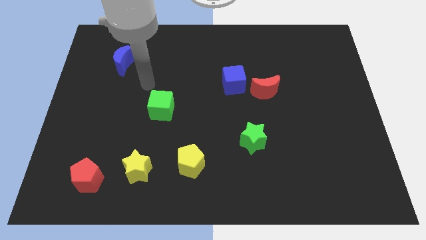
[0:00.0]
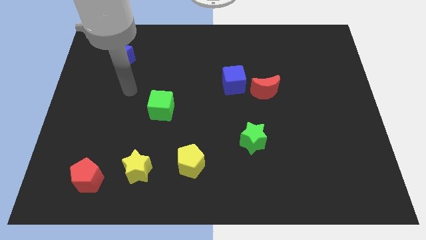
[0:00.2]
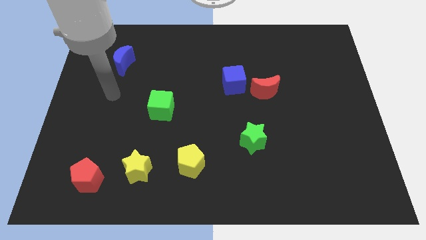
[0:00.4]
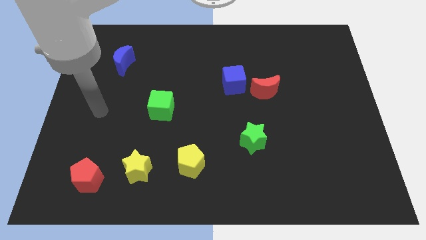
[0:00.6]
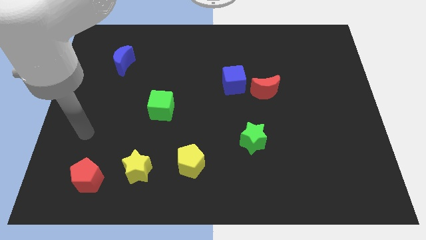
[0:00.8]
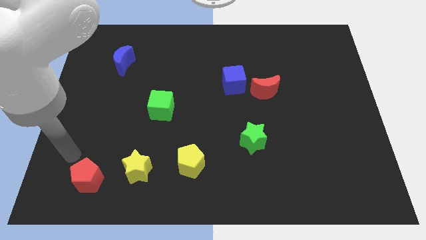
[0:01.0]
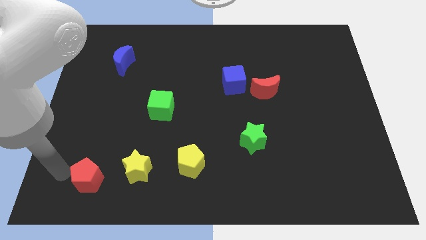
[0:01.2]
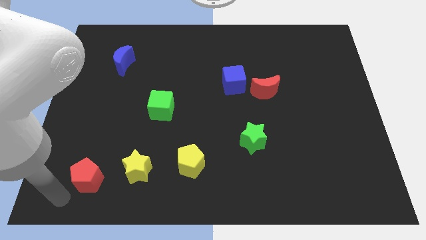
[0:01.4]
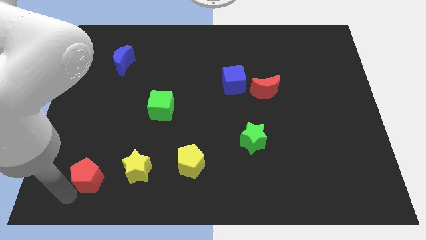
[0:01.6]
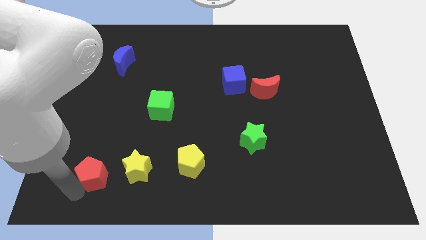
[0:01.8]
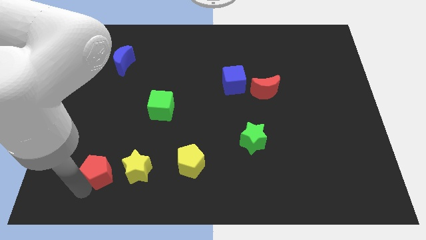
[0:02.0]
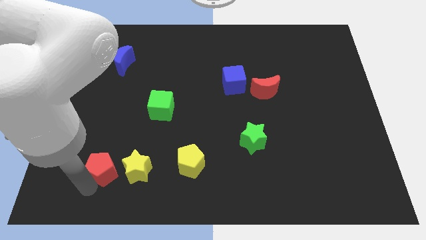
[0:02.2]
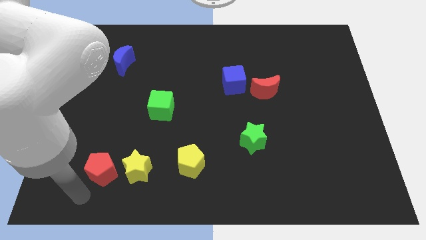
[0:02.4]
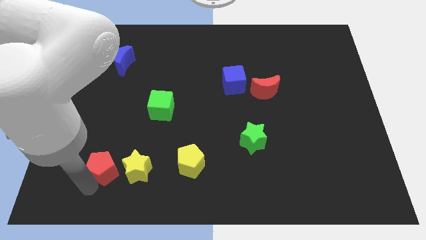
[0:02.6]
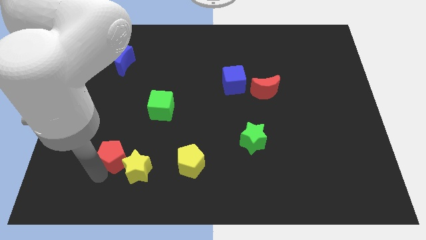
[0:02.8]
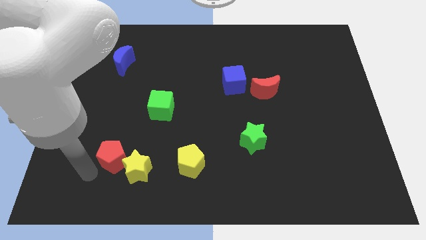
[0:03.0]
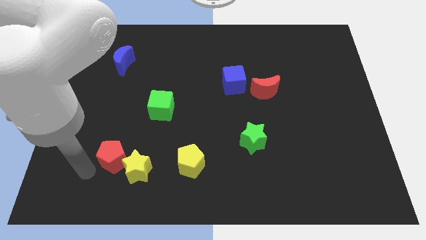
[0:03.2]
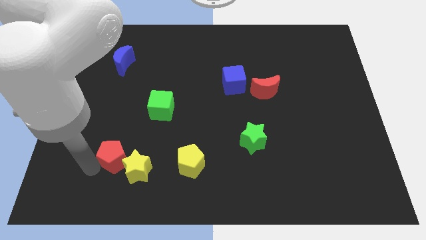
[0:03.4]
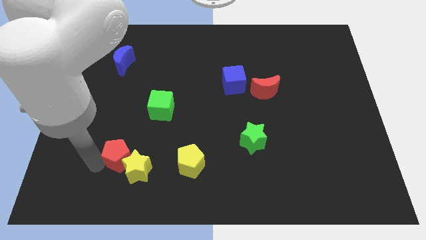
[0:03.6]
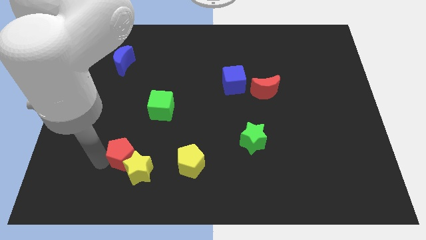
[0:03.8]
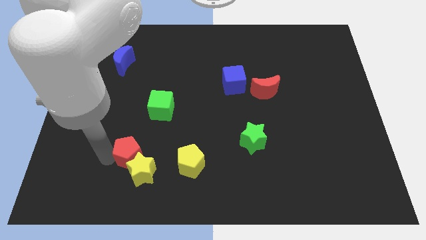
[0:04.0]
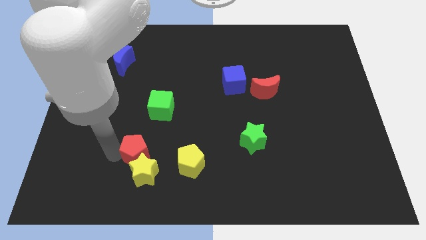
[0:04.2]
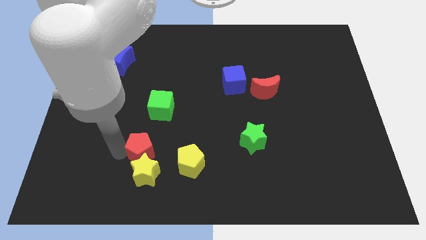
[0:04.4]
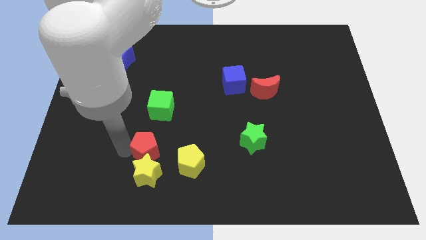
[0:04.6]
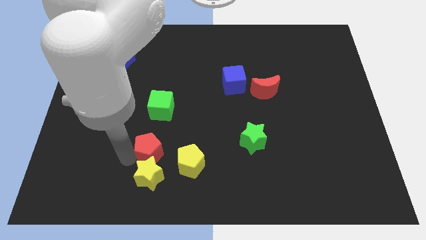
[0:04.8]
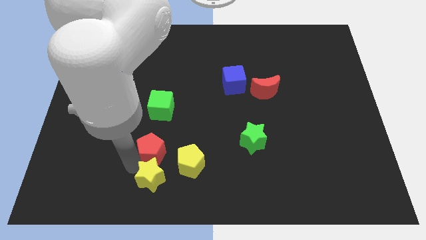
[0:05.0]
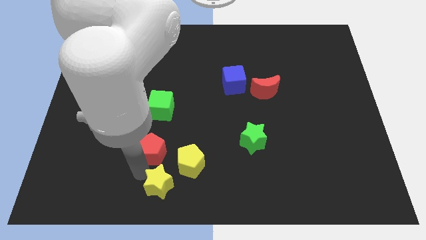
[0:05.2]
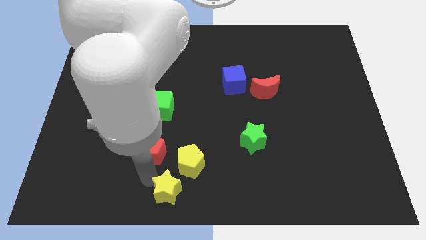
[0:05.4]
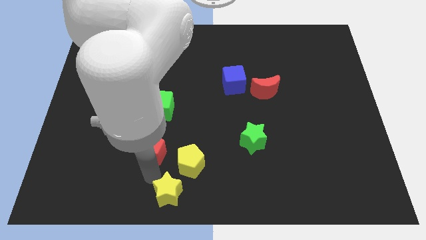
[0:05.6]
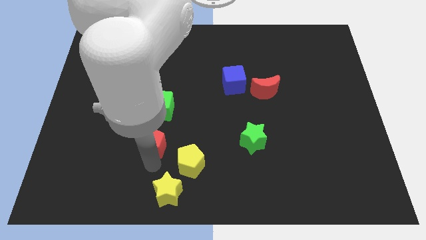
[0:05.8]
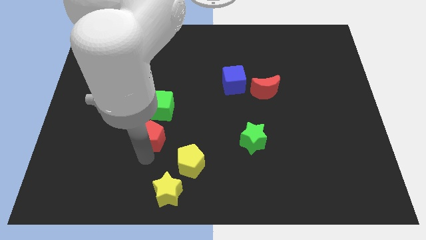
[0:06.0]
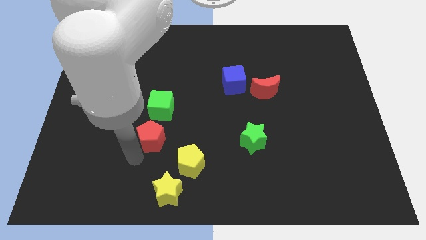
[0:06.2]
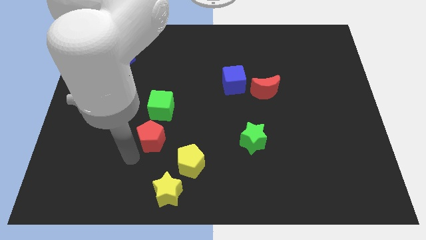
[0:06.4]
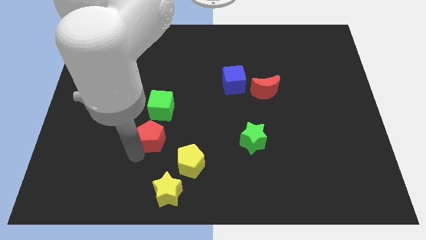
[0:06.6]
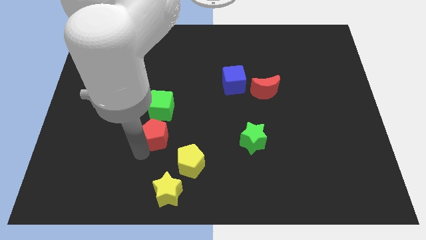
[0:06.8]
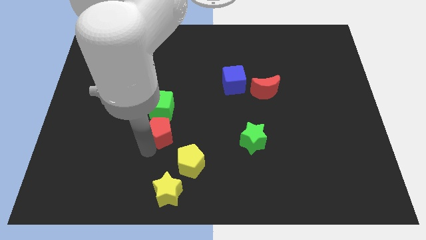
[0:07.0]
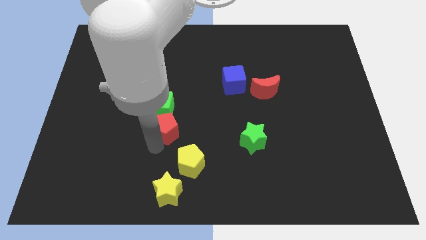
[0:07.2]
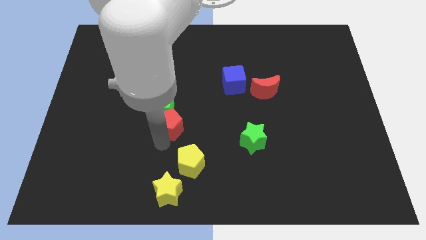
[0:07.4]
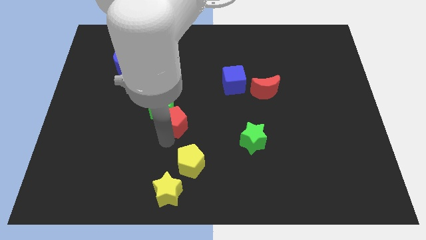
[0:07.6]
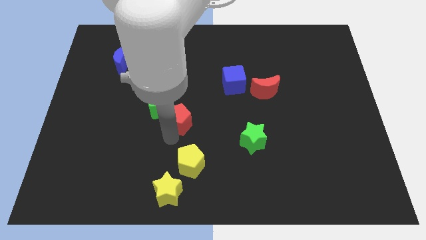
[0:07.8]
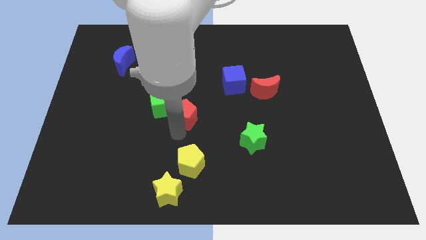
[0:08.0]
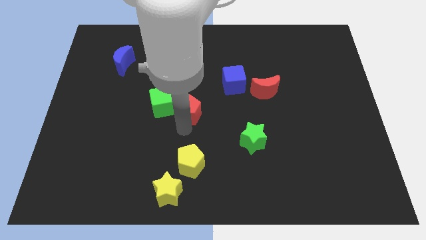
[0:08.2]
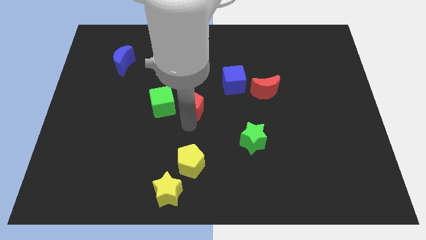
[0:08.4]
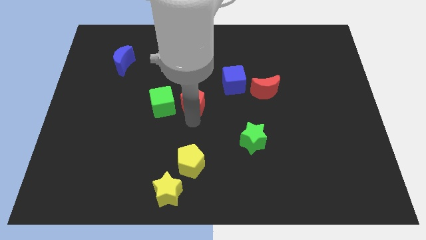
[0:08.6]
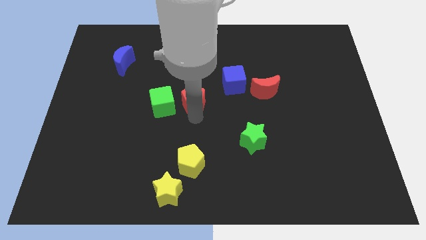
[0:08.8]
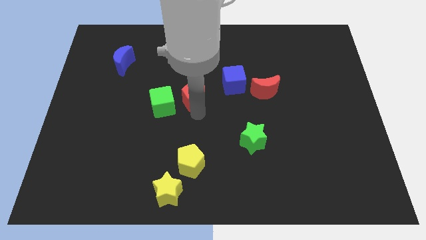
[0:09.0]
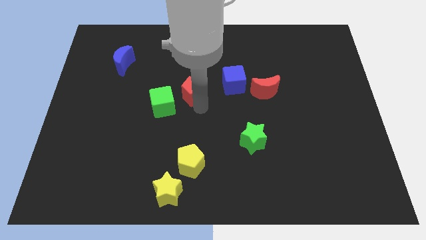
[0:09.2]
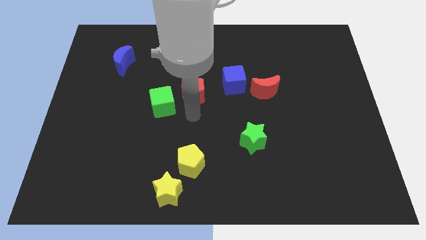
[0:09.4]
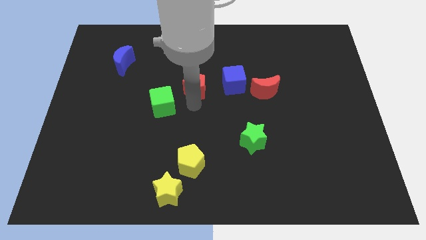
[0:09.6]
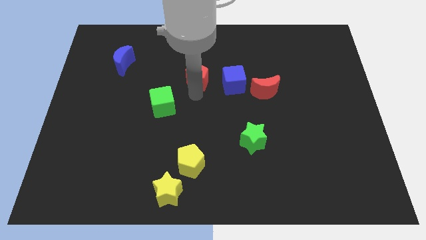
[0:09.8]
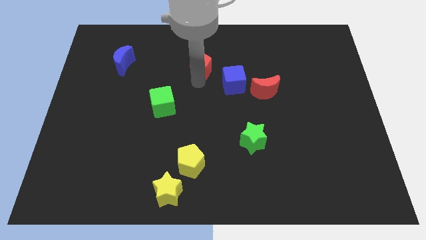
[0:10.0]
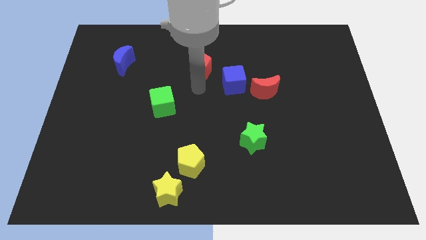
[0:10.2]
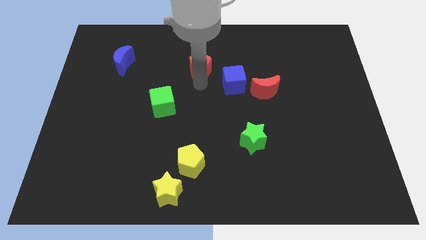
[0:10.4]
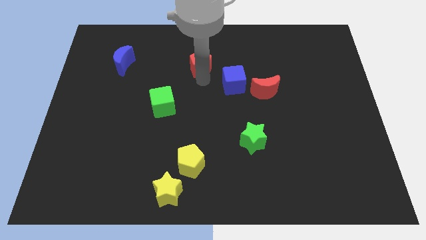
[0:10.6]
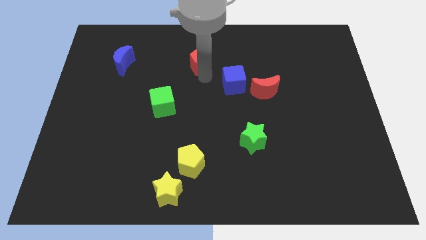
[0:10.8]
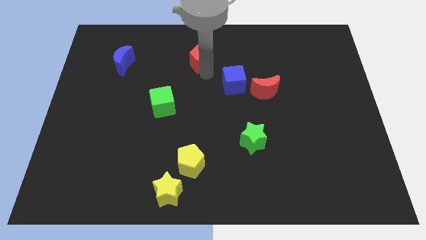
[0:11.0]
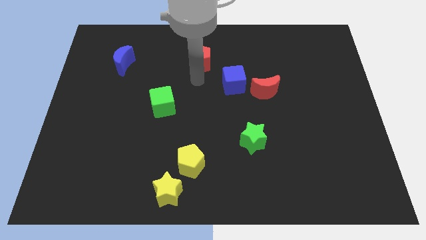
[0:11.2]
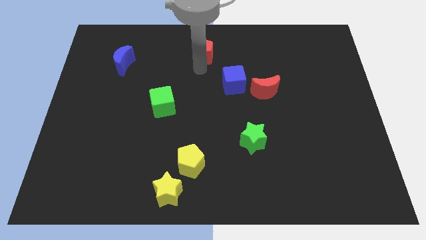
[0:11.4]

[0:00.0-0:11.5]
move the red pentagon to the top
